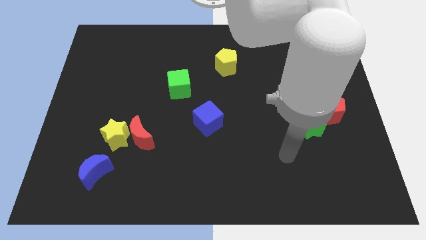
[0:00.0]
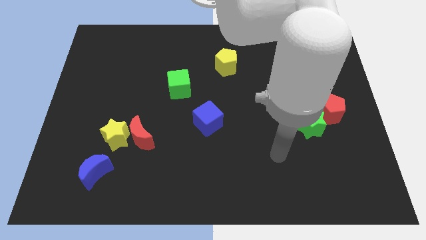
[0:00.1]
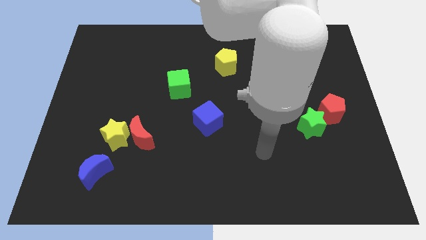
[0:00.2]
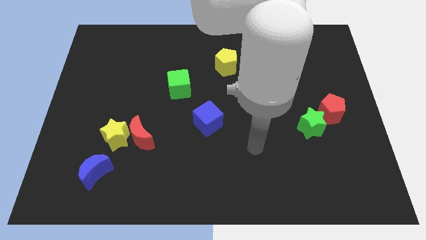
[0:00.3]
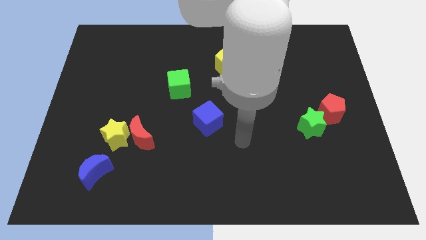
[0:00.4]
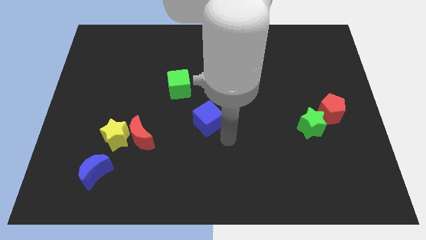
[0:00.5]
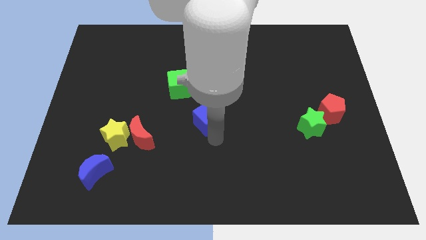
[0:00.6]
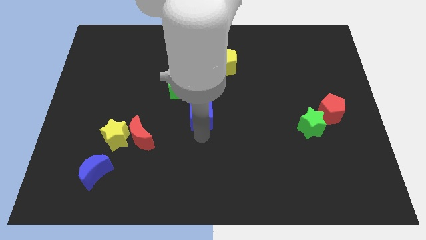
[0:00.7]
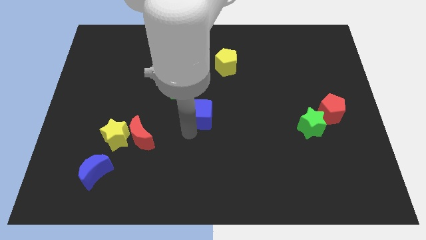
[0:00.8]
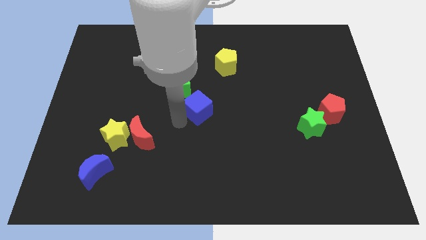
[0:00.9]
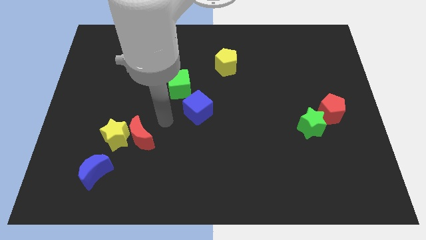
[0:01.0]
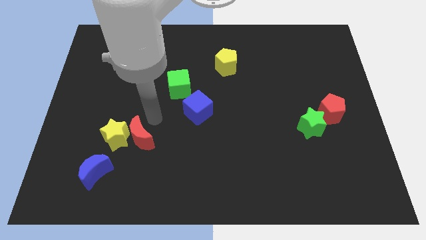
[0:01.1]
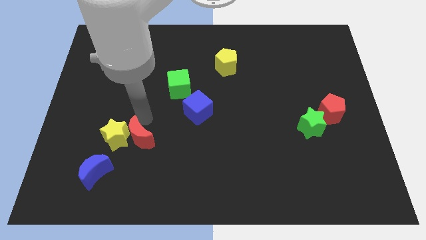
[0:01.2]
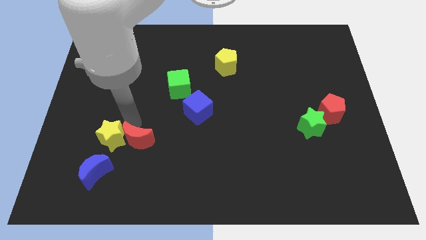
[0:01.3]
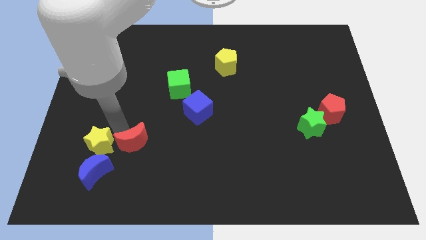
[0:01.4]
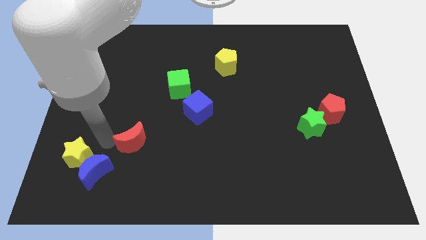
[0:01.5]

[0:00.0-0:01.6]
pull the red moon apart from the yellow star

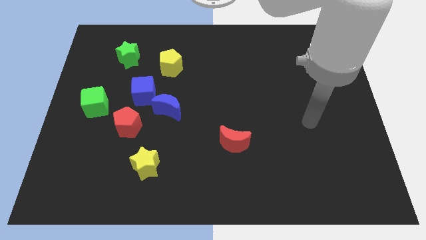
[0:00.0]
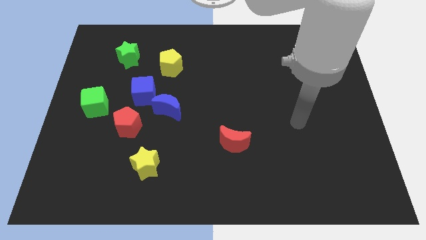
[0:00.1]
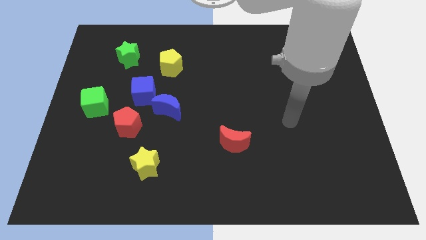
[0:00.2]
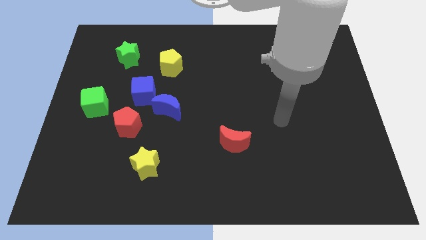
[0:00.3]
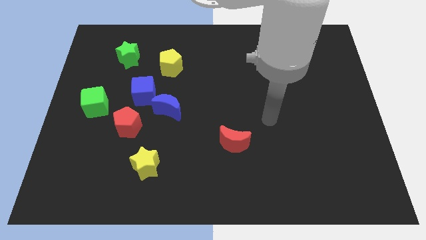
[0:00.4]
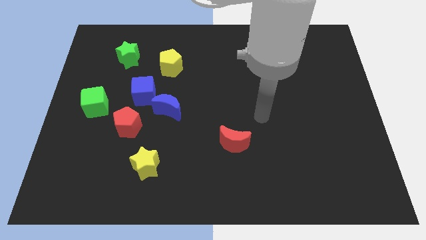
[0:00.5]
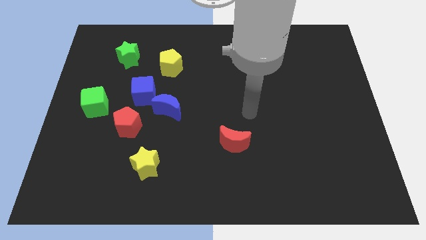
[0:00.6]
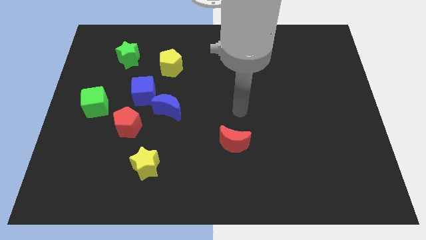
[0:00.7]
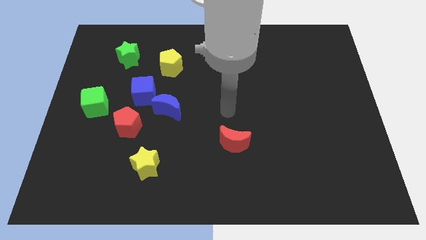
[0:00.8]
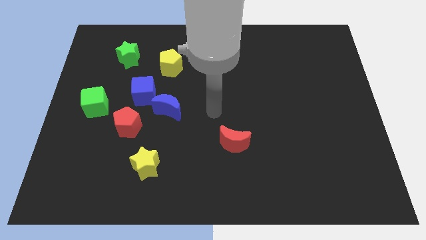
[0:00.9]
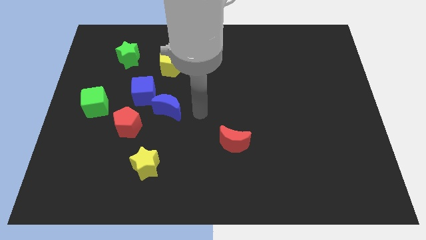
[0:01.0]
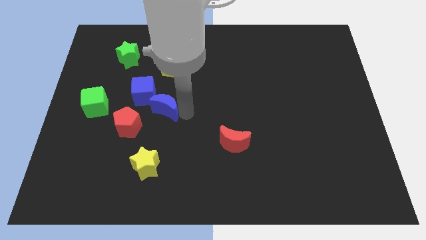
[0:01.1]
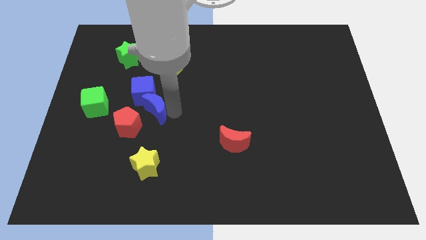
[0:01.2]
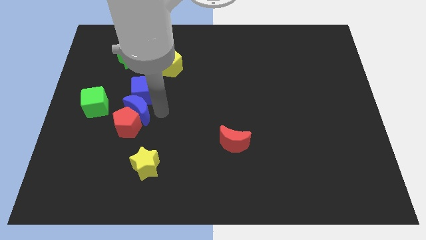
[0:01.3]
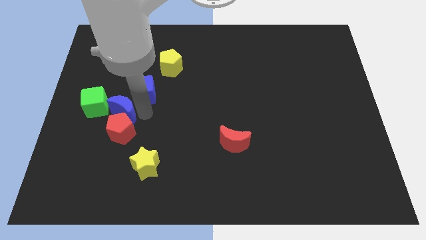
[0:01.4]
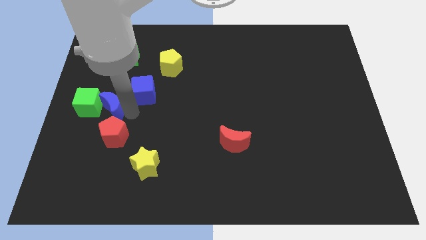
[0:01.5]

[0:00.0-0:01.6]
separate the blue cube from the blue moon and red pentagon

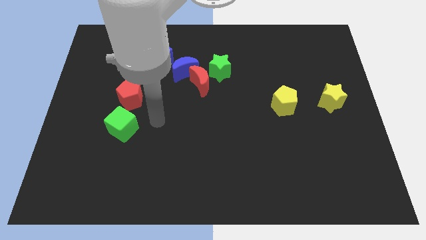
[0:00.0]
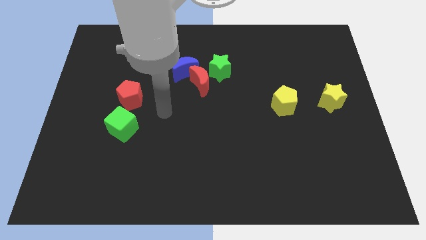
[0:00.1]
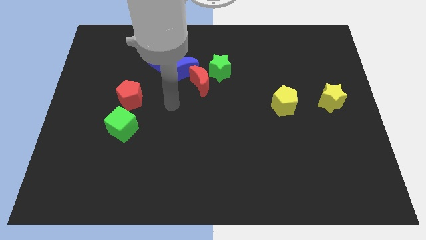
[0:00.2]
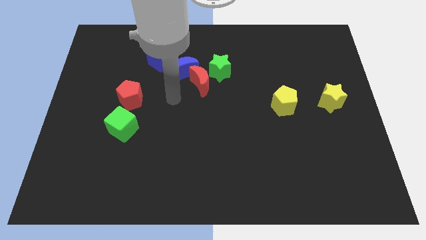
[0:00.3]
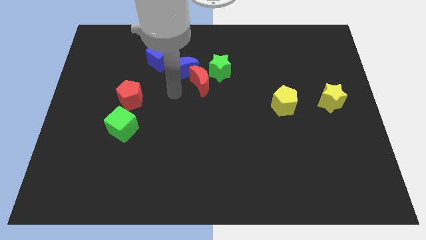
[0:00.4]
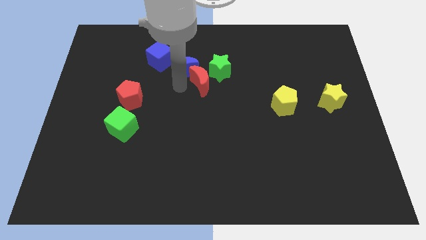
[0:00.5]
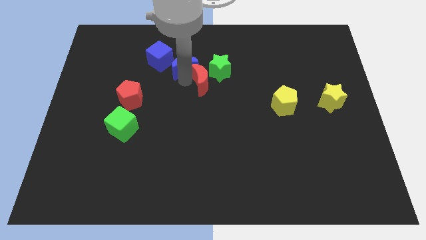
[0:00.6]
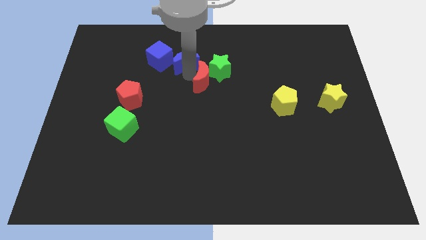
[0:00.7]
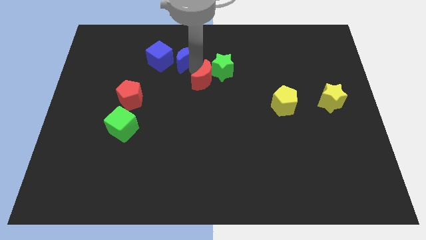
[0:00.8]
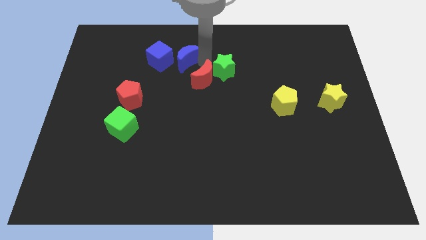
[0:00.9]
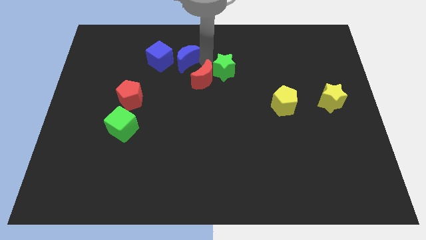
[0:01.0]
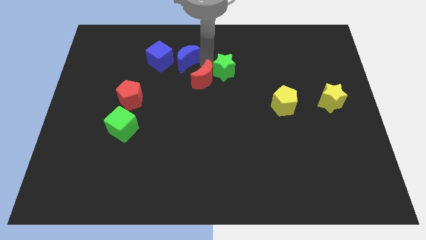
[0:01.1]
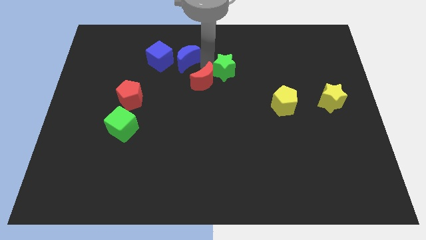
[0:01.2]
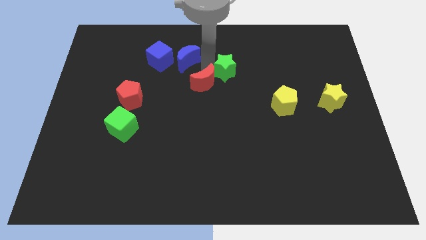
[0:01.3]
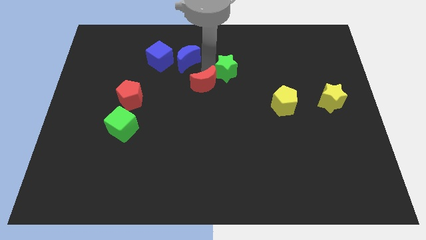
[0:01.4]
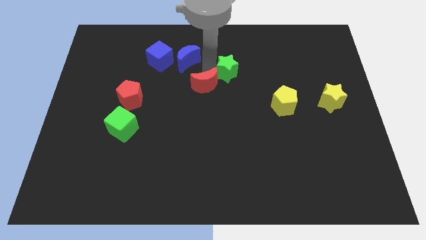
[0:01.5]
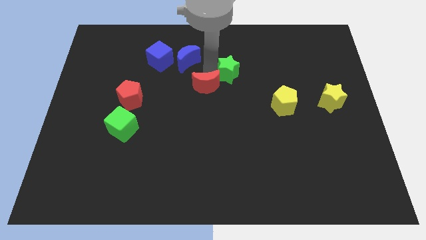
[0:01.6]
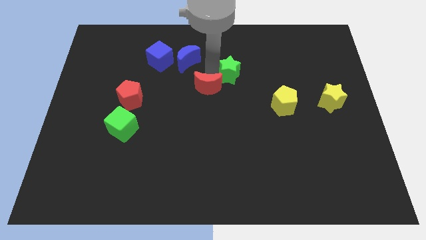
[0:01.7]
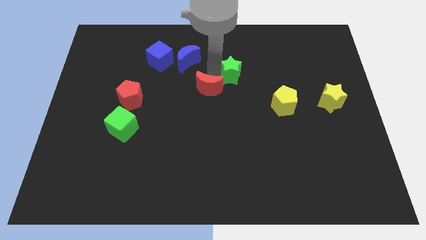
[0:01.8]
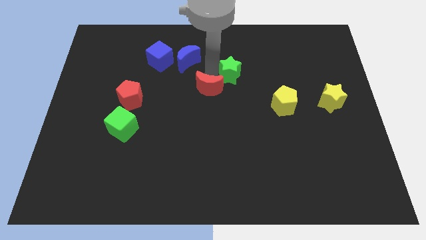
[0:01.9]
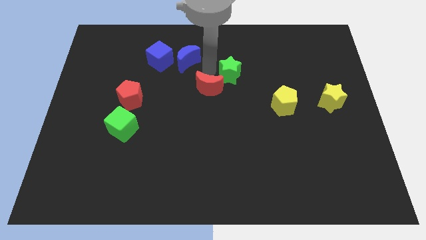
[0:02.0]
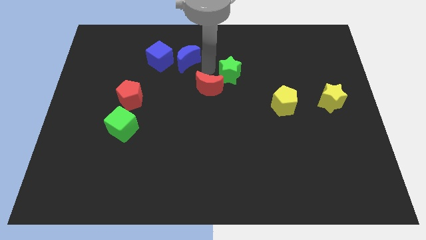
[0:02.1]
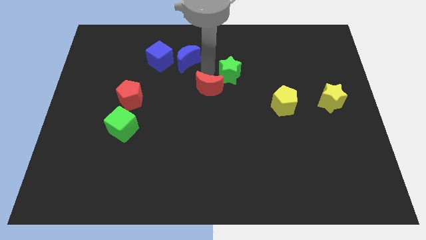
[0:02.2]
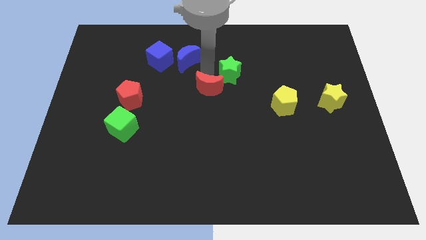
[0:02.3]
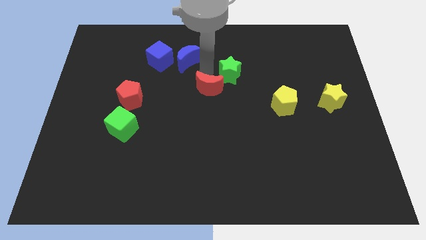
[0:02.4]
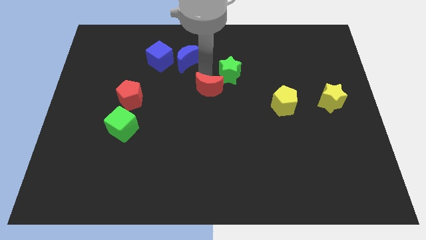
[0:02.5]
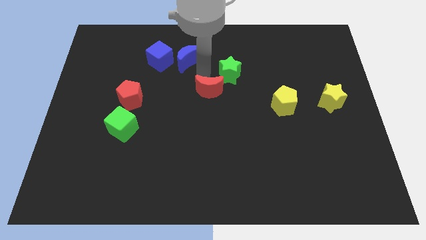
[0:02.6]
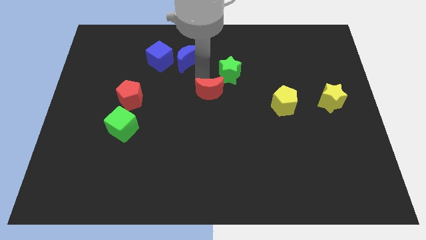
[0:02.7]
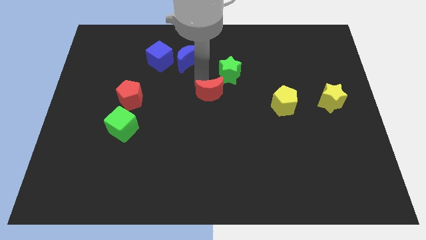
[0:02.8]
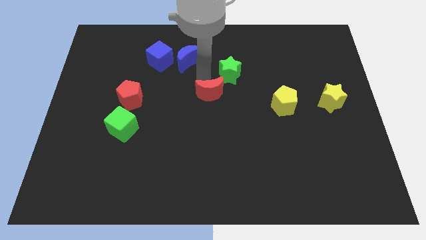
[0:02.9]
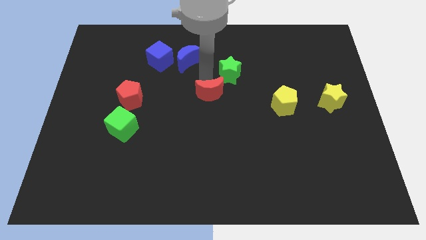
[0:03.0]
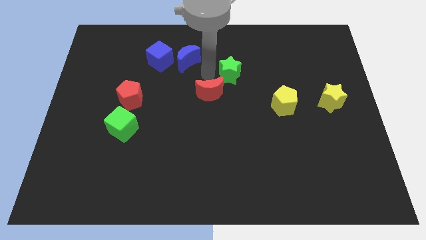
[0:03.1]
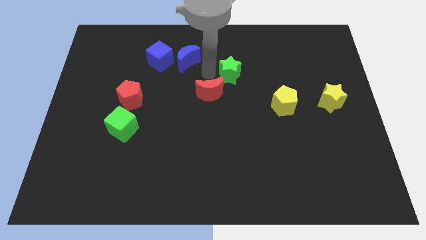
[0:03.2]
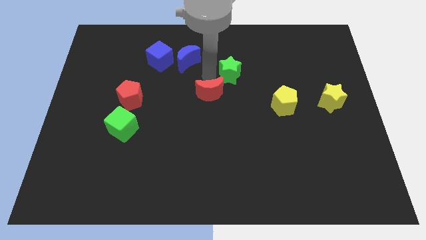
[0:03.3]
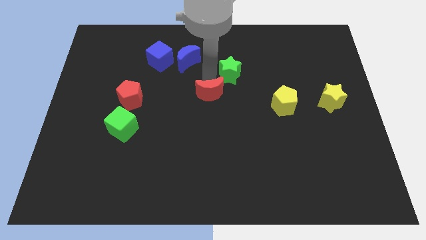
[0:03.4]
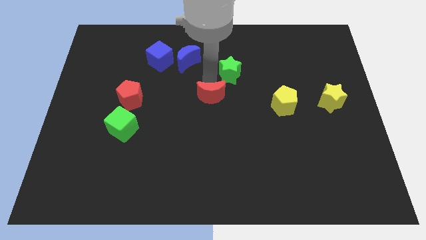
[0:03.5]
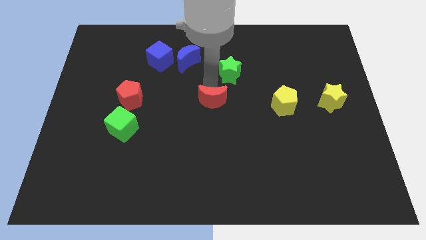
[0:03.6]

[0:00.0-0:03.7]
pull the red moon apart from the blue moon and green star

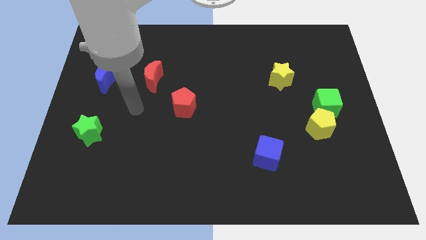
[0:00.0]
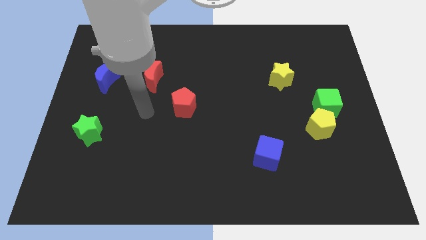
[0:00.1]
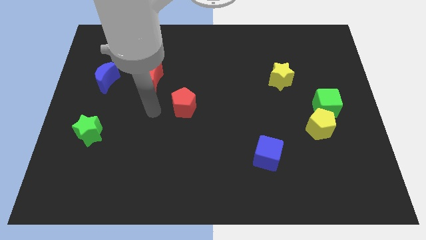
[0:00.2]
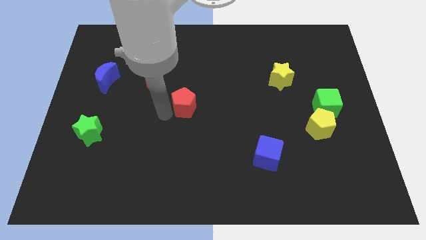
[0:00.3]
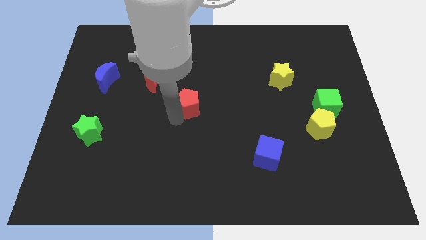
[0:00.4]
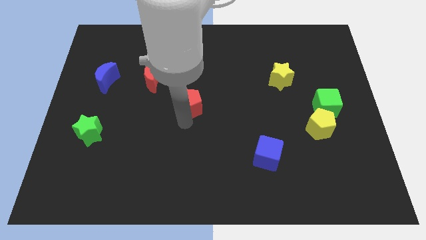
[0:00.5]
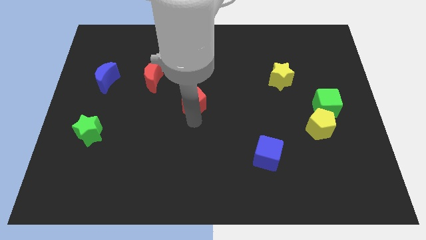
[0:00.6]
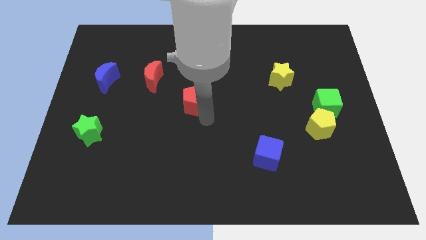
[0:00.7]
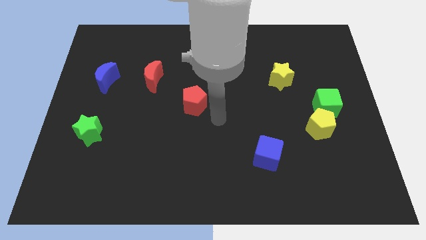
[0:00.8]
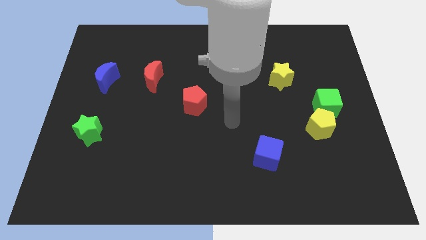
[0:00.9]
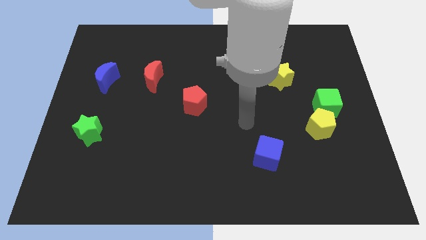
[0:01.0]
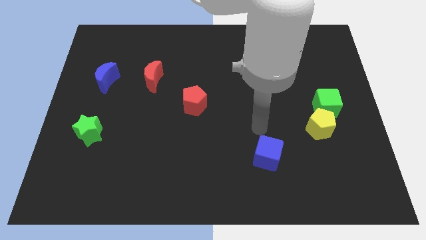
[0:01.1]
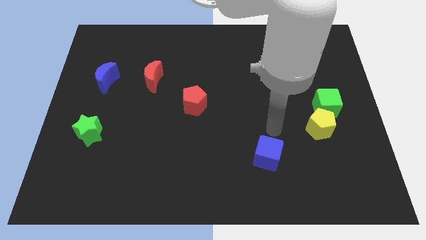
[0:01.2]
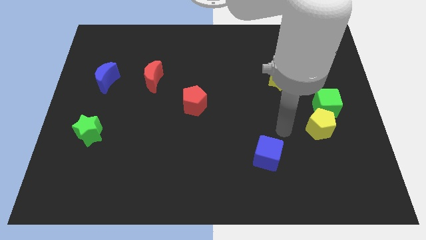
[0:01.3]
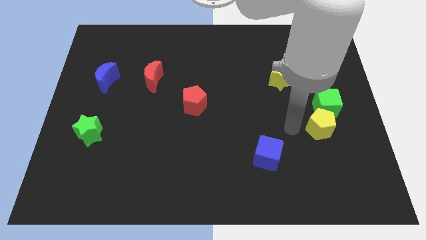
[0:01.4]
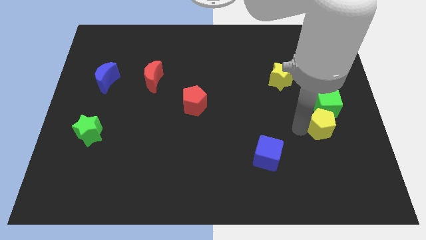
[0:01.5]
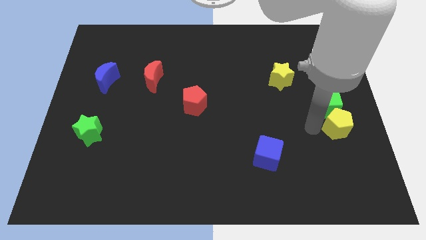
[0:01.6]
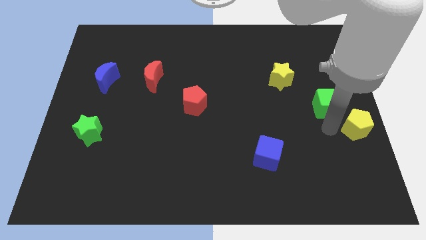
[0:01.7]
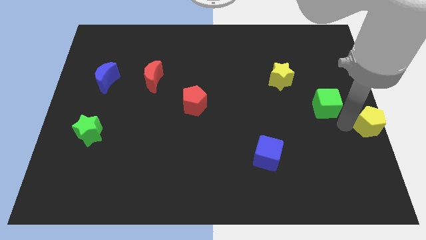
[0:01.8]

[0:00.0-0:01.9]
separate the green cube from the yellow pentagon

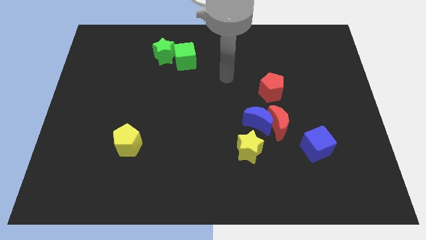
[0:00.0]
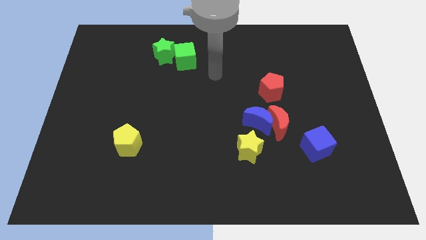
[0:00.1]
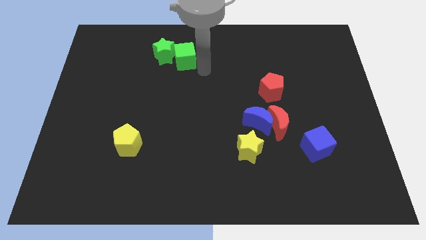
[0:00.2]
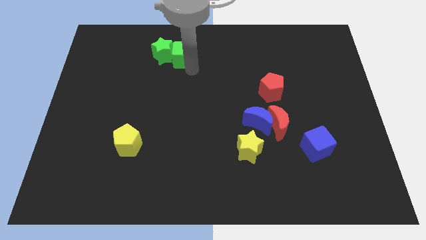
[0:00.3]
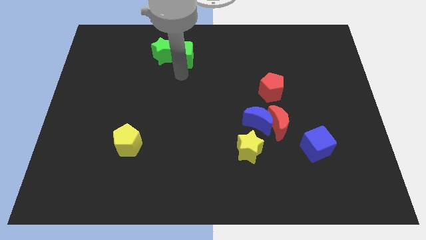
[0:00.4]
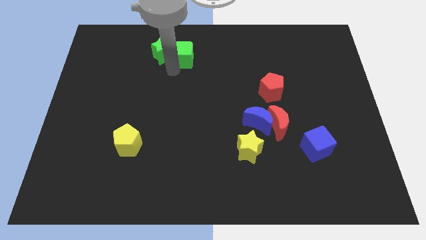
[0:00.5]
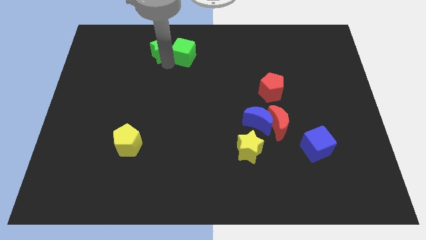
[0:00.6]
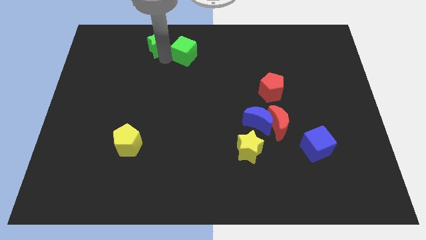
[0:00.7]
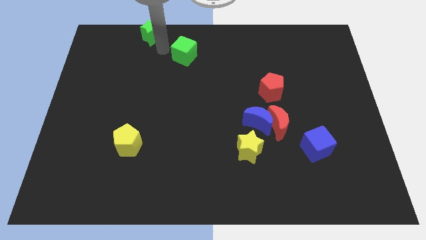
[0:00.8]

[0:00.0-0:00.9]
move the green cube away from the green star
